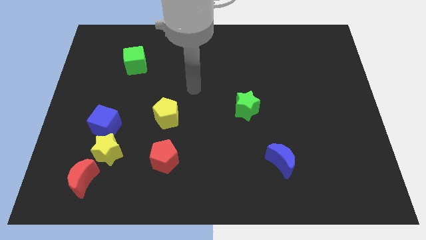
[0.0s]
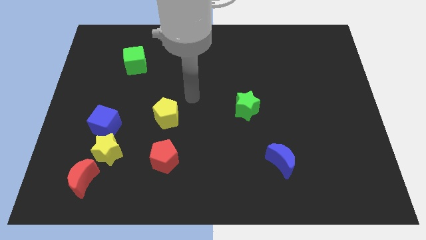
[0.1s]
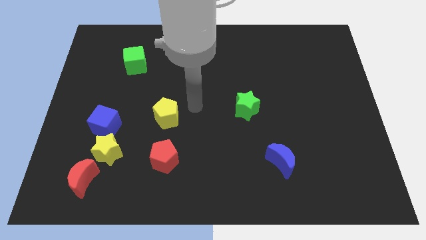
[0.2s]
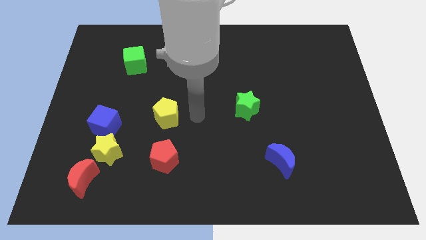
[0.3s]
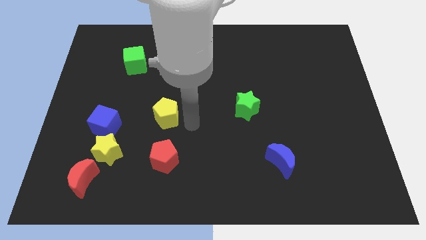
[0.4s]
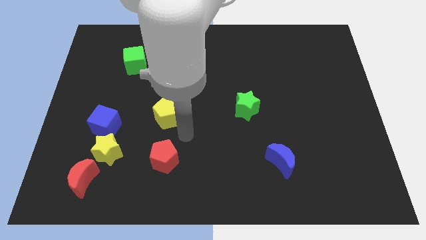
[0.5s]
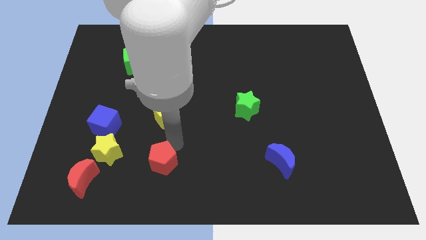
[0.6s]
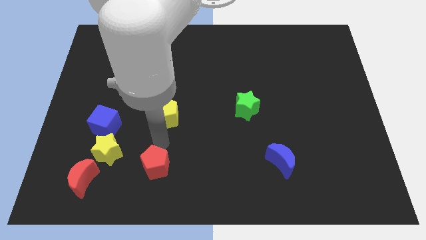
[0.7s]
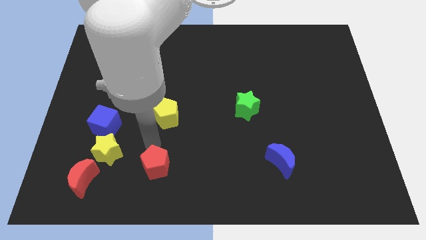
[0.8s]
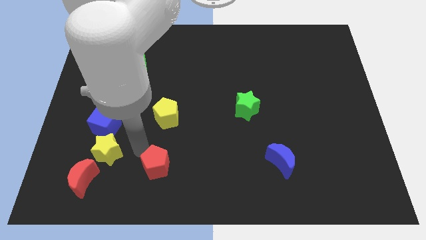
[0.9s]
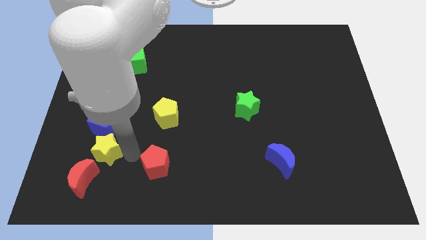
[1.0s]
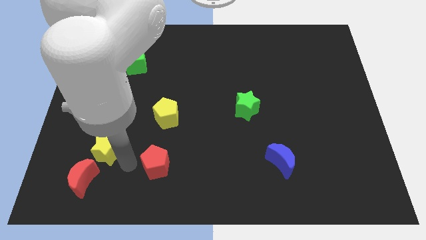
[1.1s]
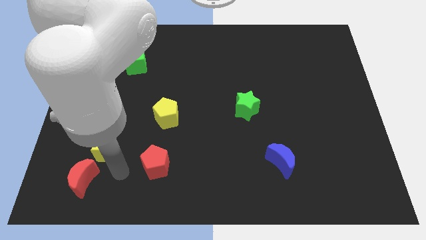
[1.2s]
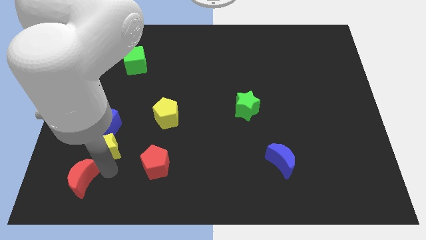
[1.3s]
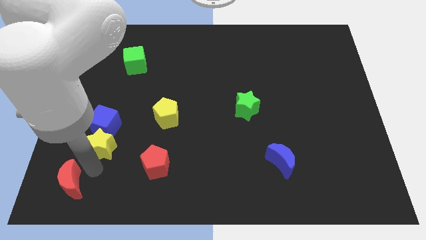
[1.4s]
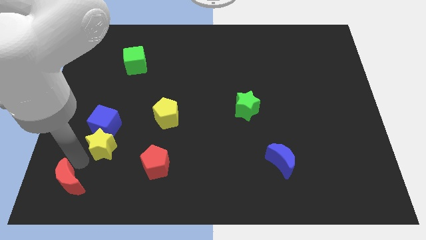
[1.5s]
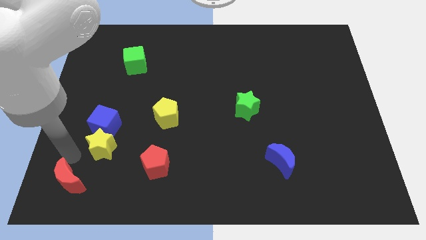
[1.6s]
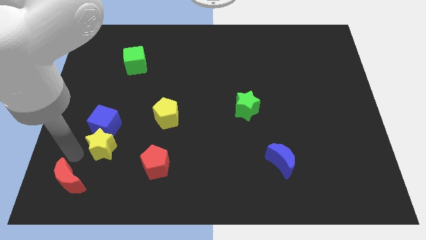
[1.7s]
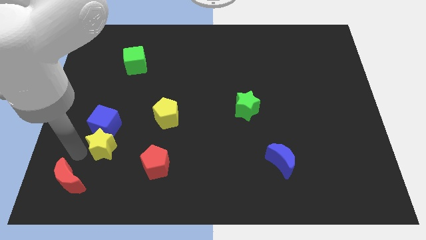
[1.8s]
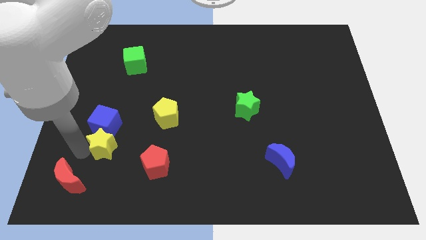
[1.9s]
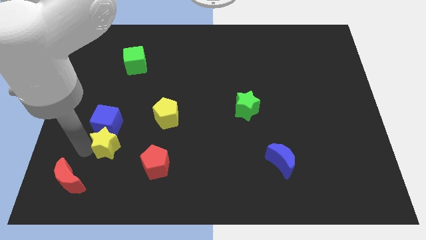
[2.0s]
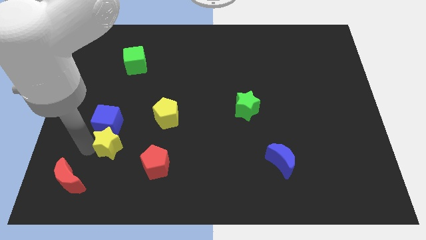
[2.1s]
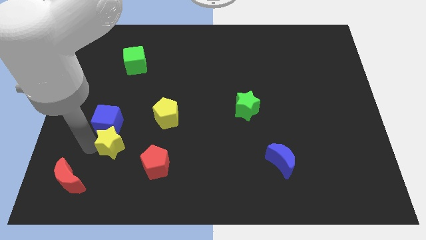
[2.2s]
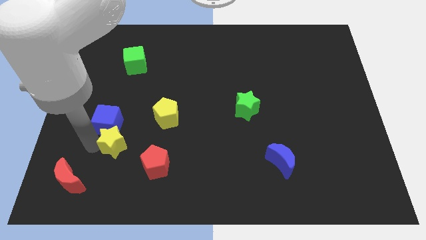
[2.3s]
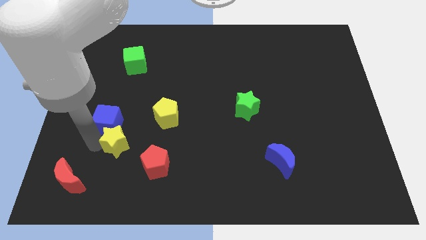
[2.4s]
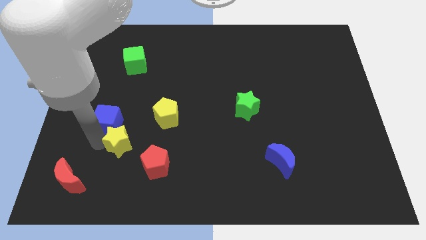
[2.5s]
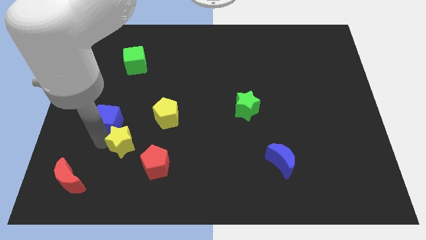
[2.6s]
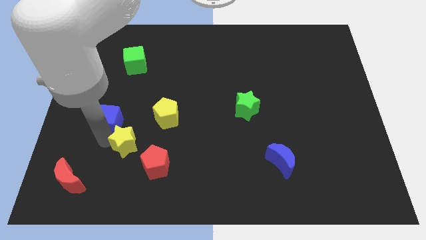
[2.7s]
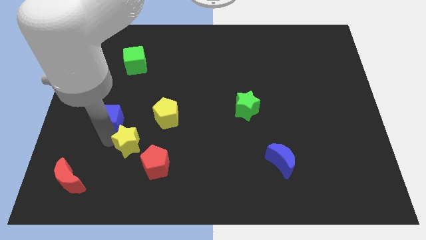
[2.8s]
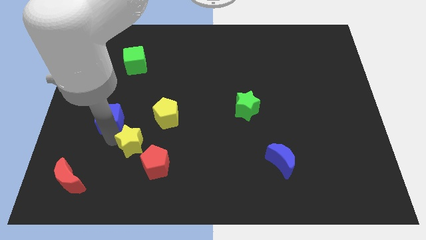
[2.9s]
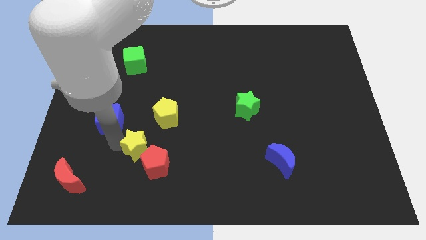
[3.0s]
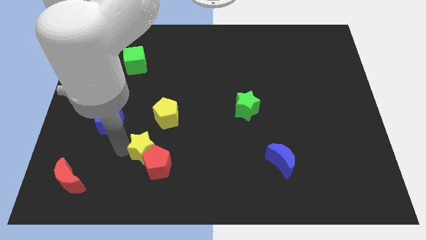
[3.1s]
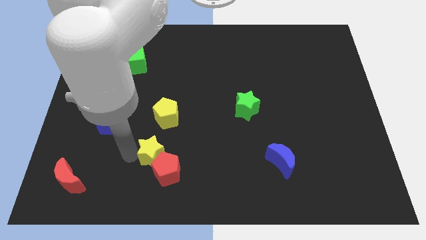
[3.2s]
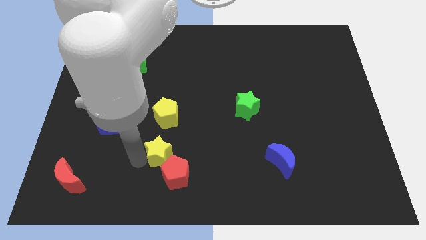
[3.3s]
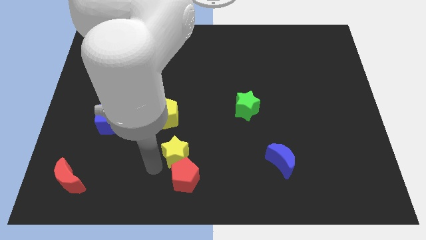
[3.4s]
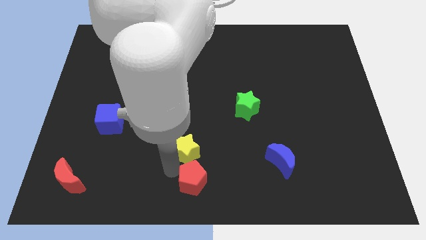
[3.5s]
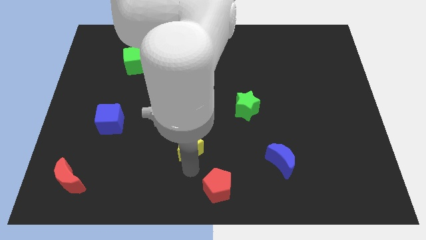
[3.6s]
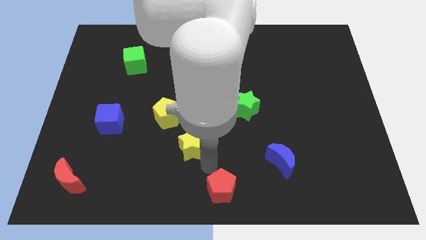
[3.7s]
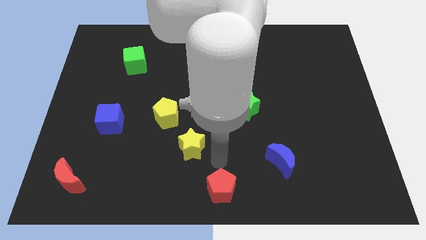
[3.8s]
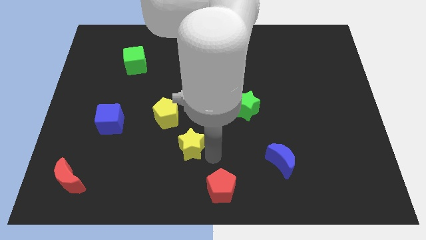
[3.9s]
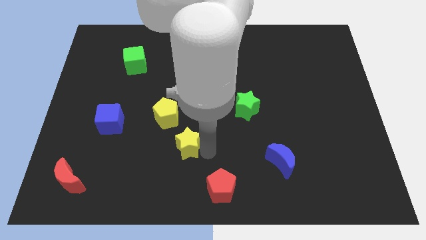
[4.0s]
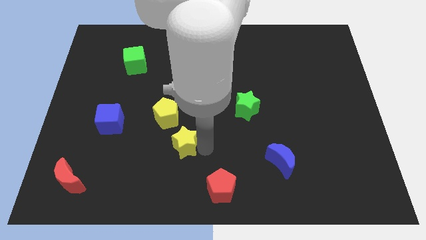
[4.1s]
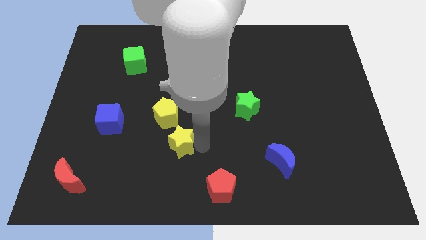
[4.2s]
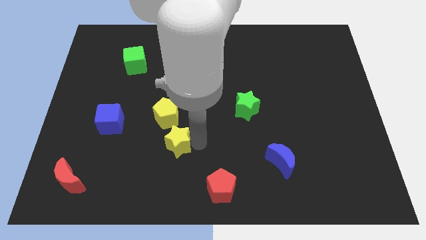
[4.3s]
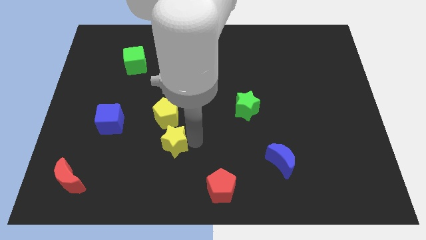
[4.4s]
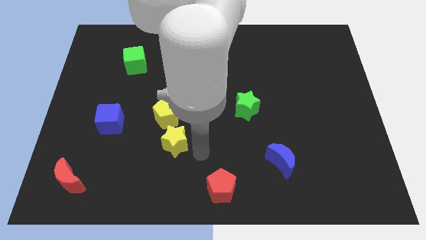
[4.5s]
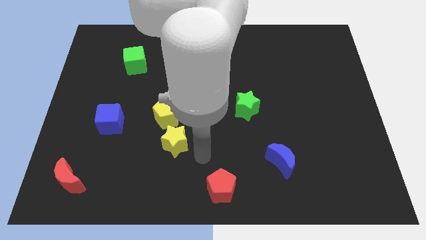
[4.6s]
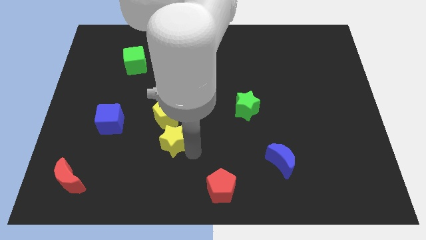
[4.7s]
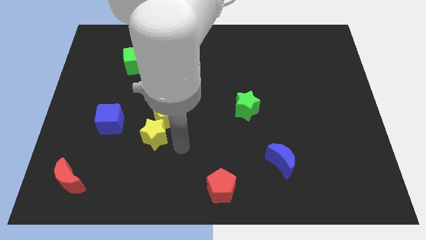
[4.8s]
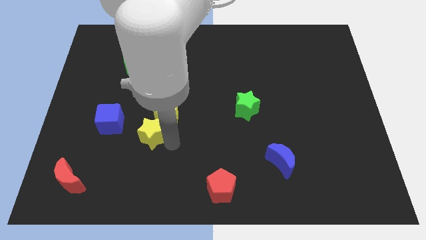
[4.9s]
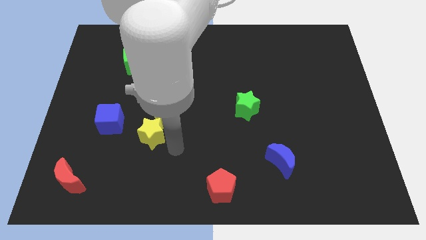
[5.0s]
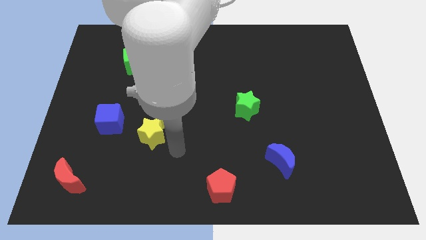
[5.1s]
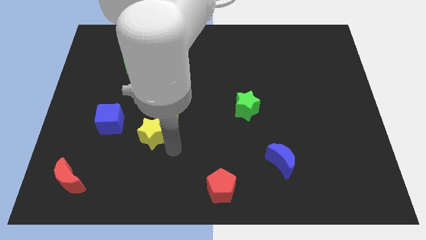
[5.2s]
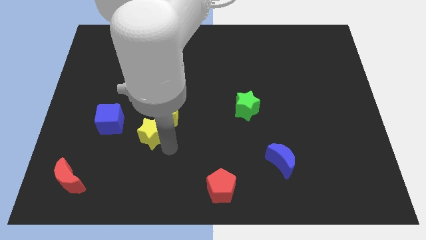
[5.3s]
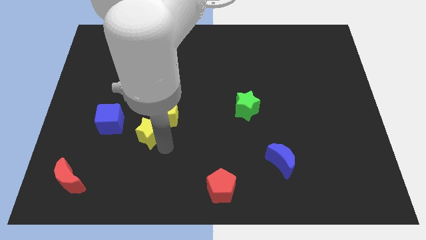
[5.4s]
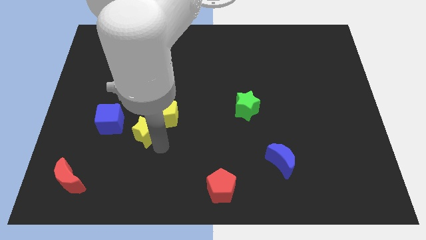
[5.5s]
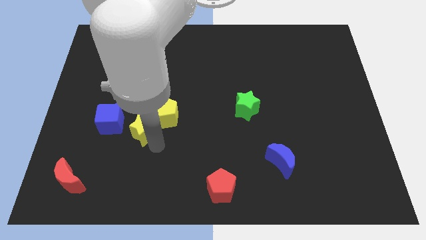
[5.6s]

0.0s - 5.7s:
slide the yellow star to the left of the yellow pentagon

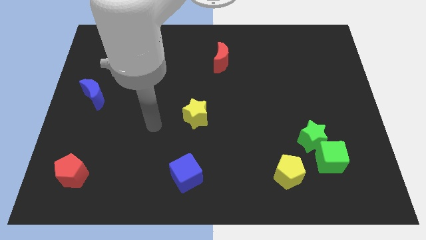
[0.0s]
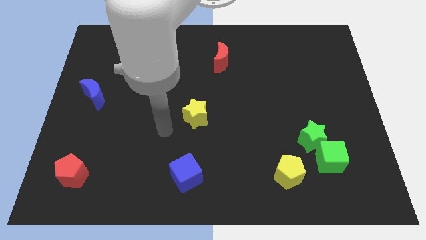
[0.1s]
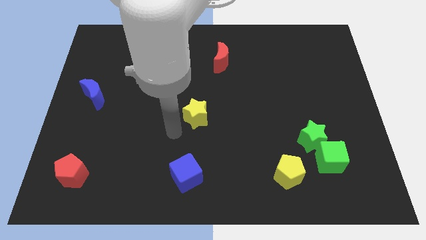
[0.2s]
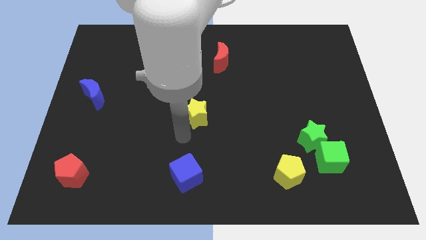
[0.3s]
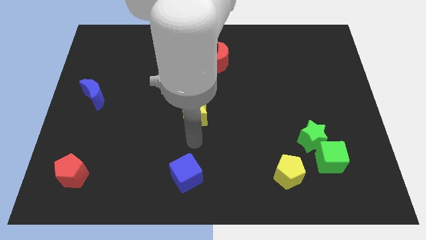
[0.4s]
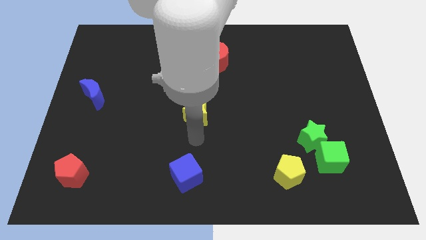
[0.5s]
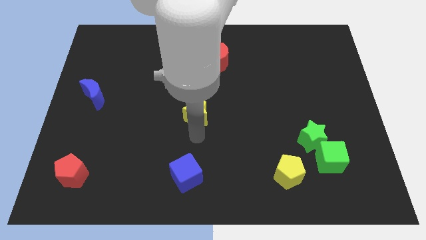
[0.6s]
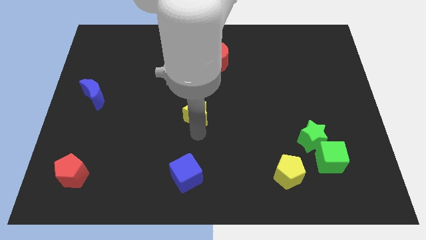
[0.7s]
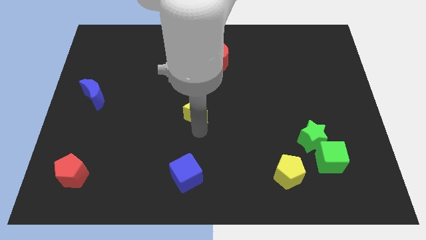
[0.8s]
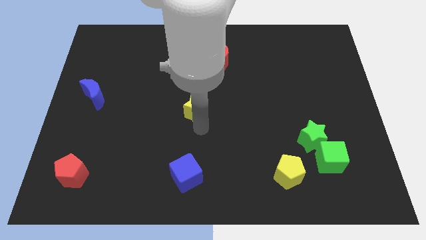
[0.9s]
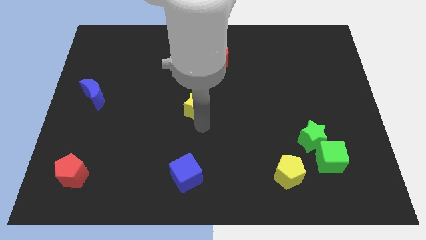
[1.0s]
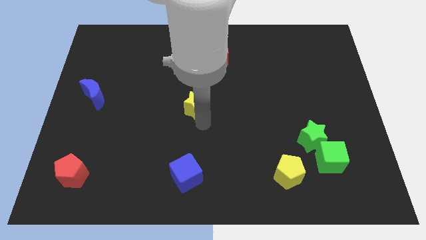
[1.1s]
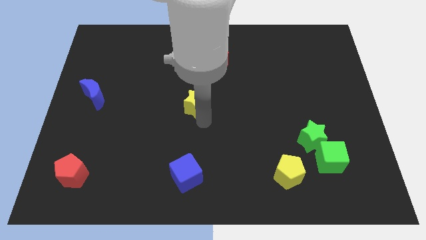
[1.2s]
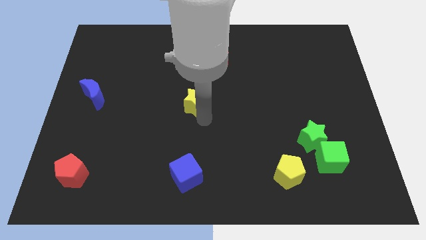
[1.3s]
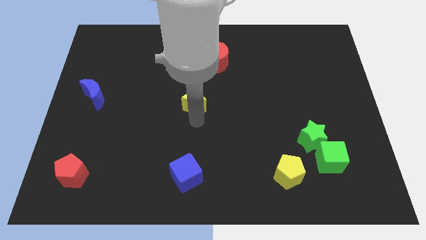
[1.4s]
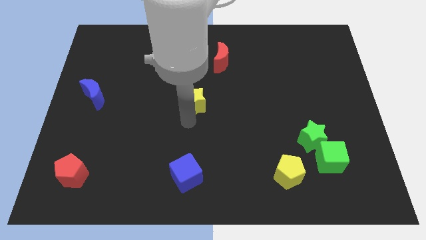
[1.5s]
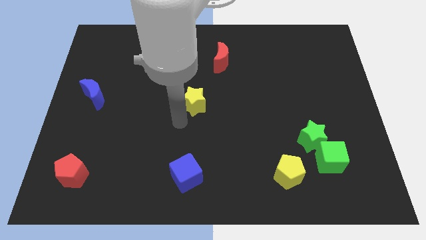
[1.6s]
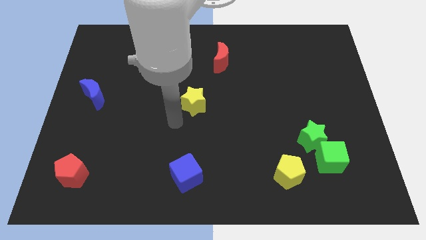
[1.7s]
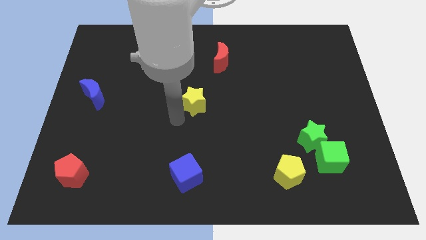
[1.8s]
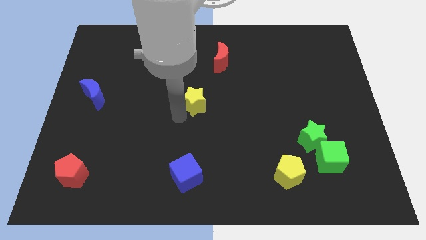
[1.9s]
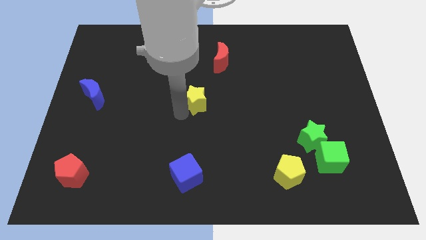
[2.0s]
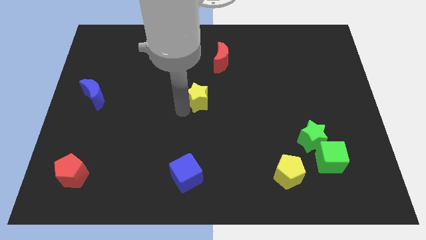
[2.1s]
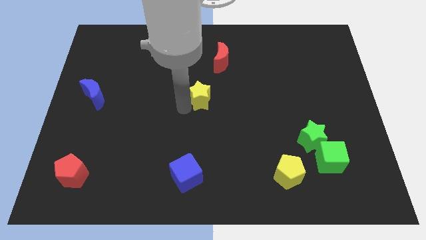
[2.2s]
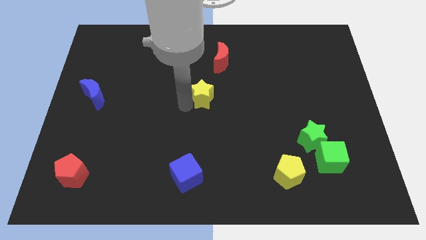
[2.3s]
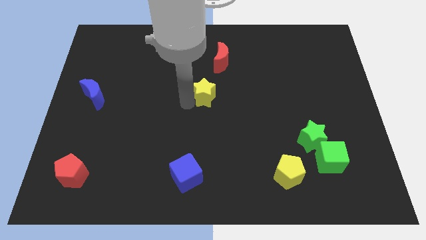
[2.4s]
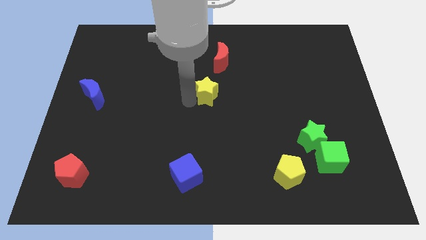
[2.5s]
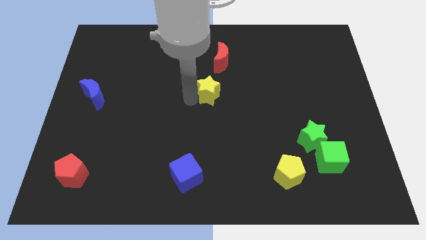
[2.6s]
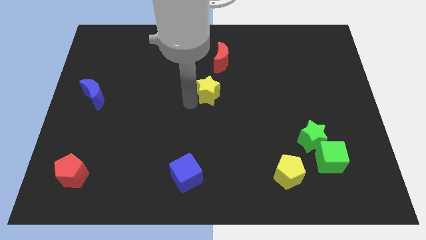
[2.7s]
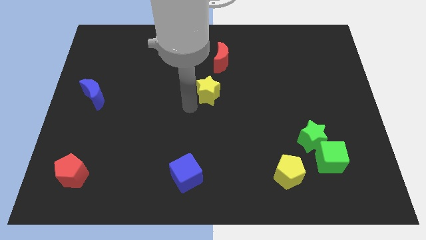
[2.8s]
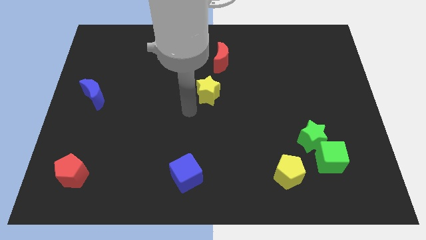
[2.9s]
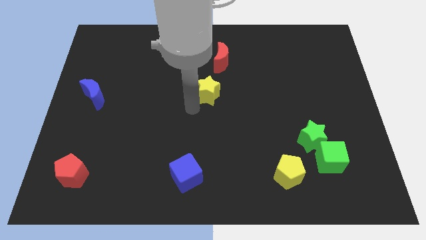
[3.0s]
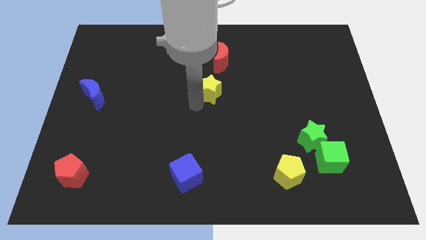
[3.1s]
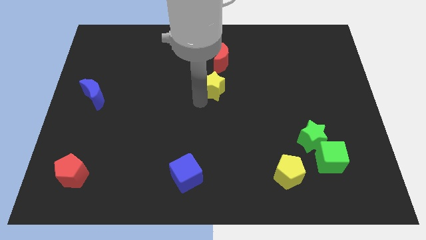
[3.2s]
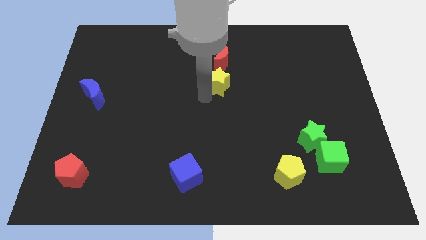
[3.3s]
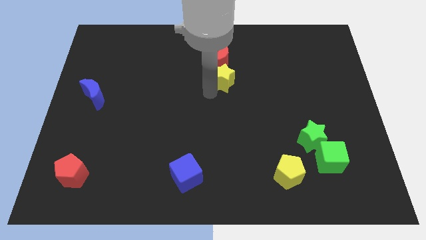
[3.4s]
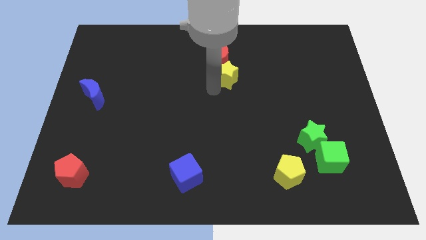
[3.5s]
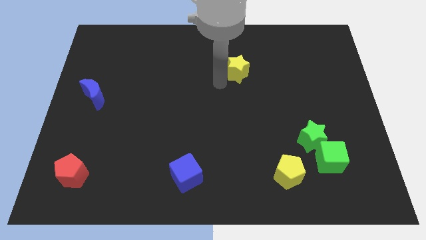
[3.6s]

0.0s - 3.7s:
slide the yellow star just right of the red moon
